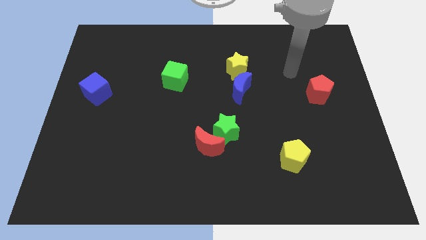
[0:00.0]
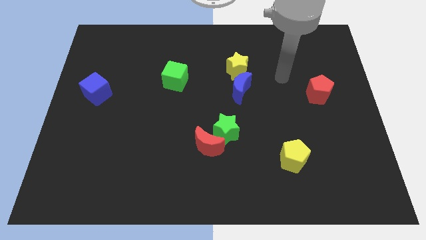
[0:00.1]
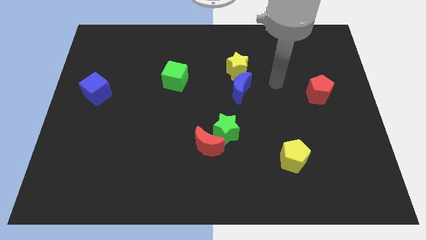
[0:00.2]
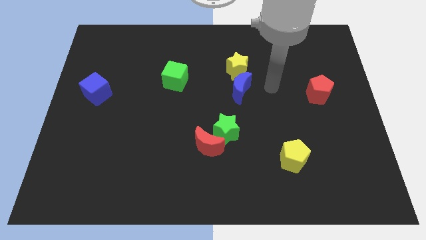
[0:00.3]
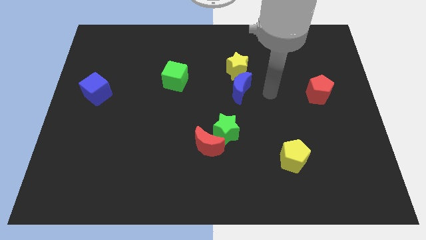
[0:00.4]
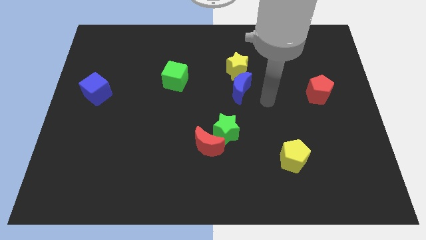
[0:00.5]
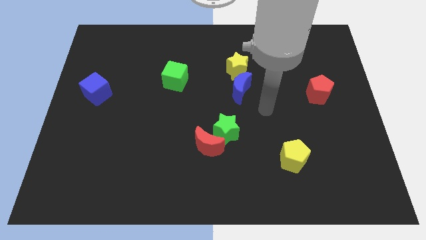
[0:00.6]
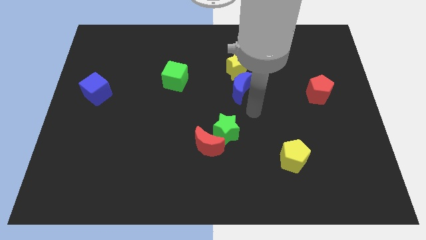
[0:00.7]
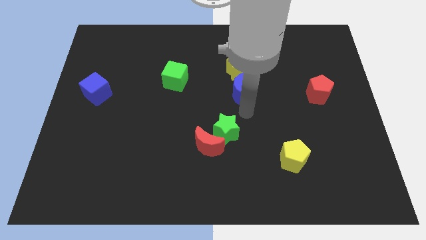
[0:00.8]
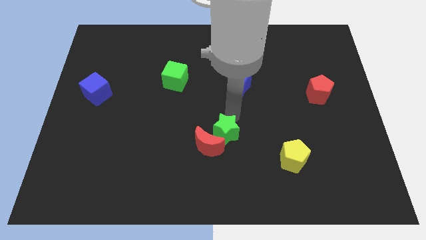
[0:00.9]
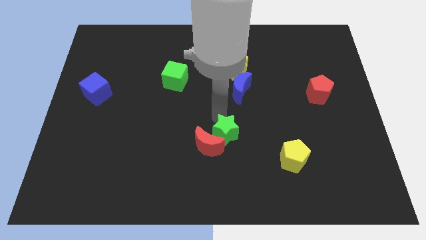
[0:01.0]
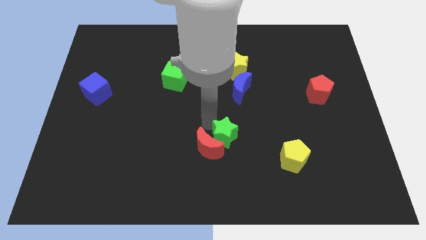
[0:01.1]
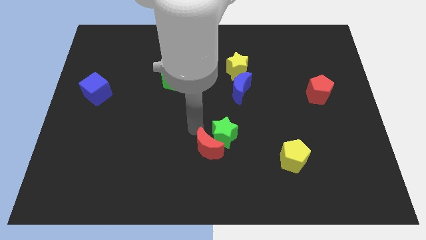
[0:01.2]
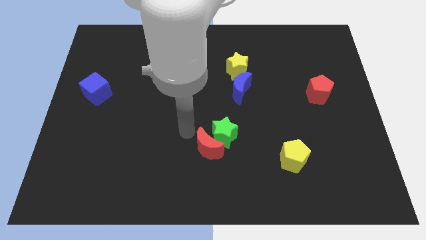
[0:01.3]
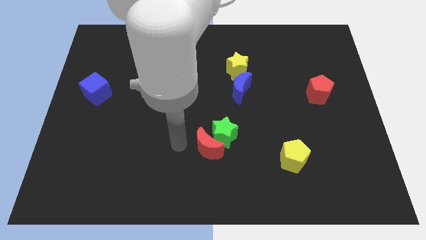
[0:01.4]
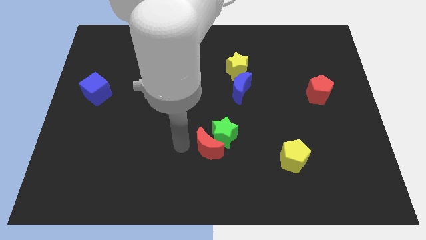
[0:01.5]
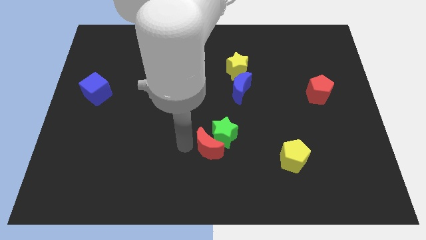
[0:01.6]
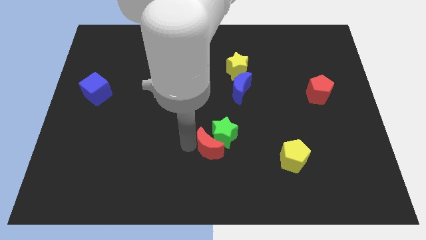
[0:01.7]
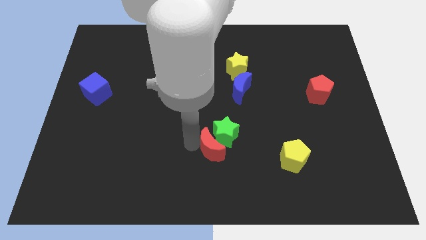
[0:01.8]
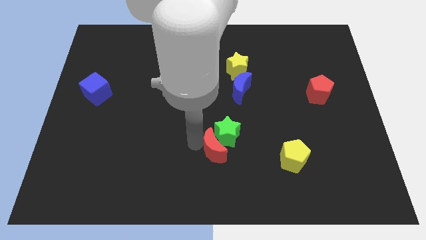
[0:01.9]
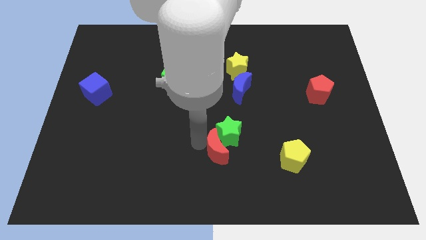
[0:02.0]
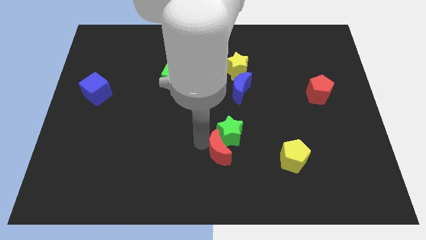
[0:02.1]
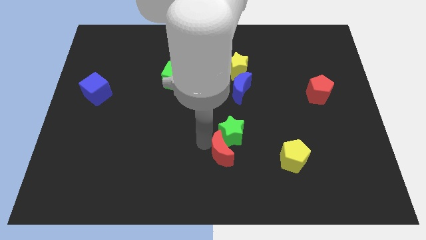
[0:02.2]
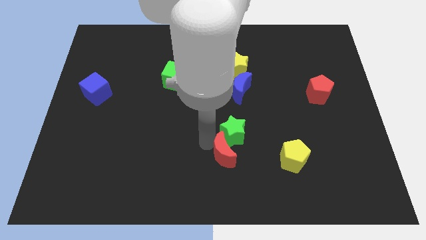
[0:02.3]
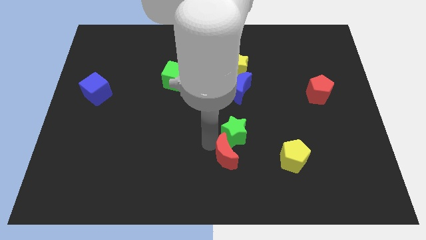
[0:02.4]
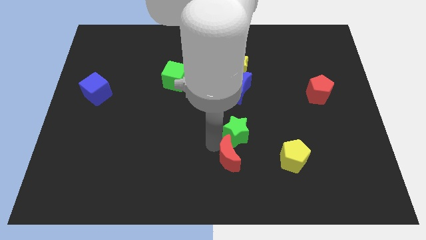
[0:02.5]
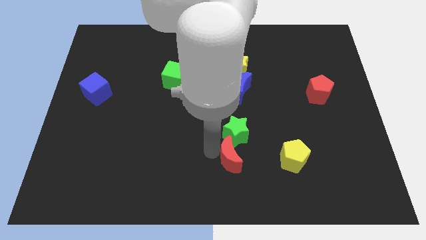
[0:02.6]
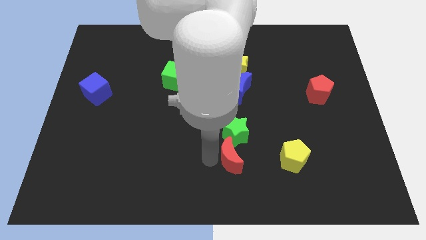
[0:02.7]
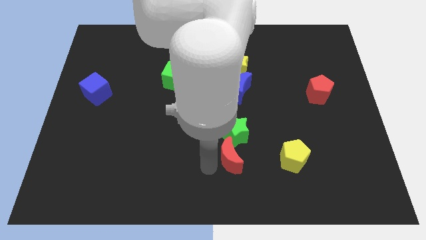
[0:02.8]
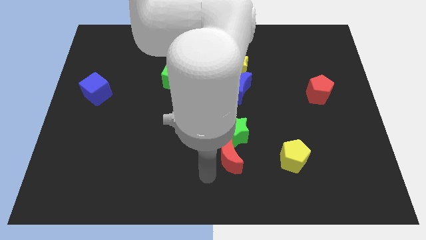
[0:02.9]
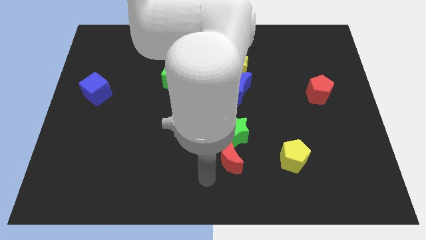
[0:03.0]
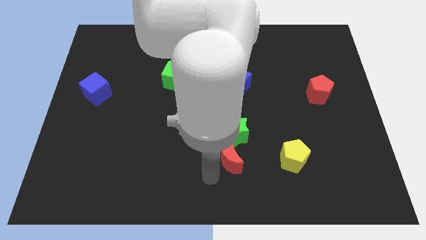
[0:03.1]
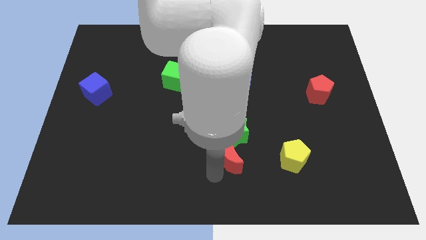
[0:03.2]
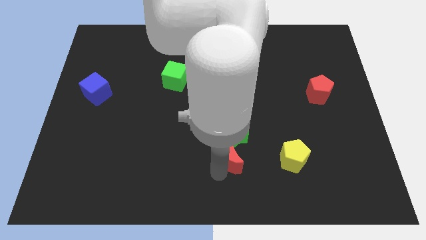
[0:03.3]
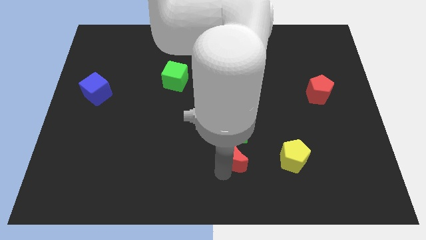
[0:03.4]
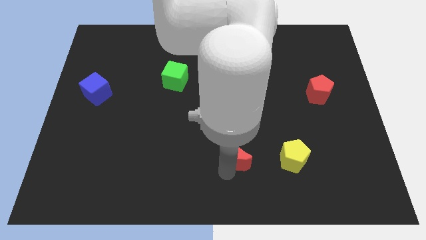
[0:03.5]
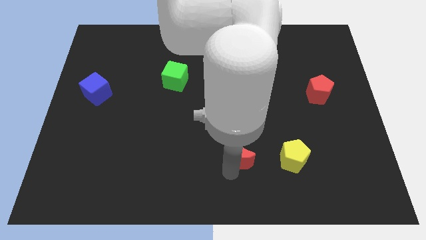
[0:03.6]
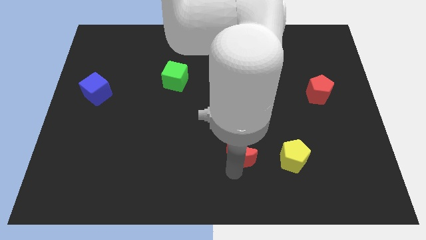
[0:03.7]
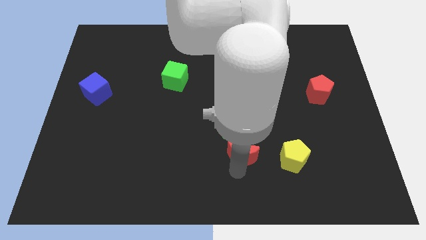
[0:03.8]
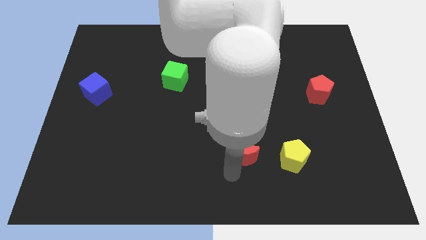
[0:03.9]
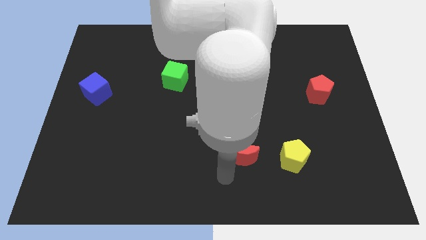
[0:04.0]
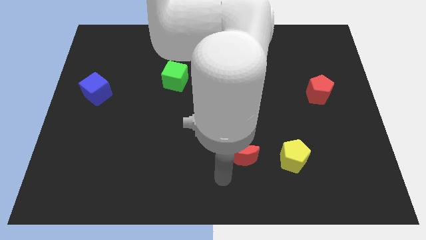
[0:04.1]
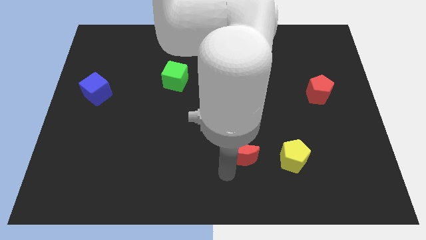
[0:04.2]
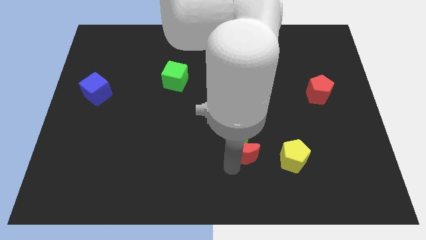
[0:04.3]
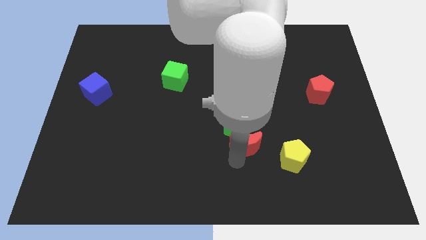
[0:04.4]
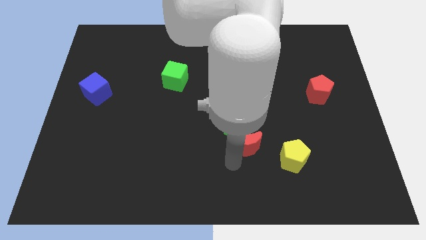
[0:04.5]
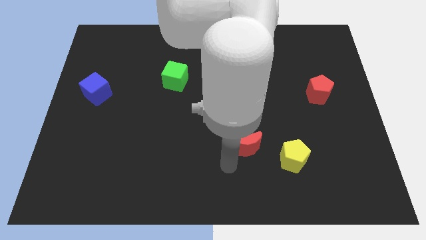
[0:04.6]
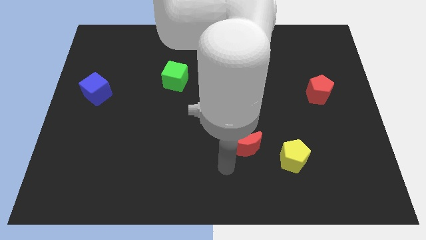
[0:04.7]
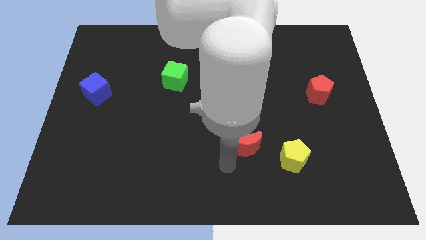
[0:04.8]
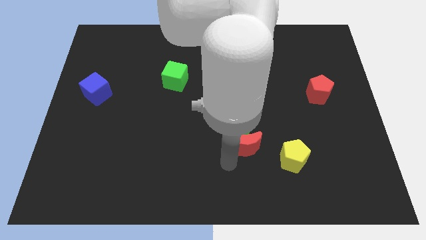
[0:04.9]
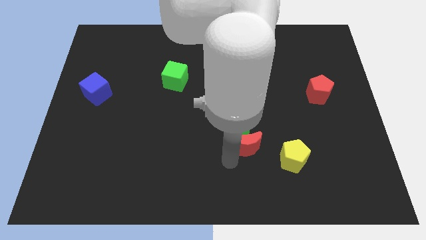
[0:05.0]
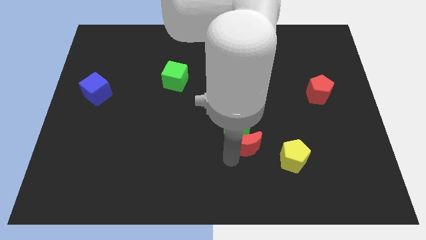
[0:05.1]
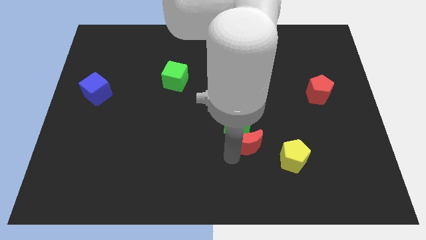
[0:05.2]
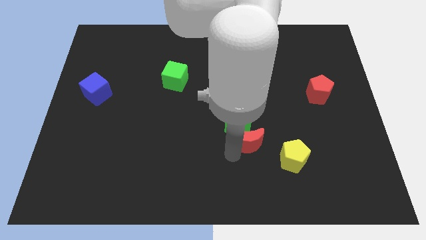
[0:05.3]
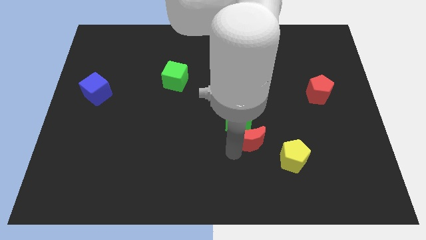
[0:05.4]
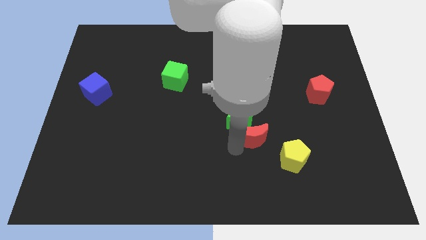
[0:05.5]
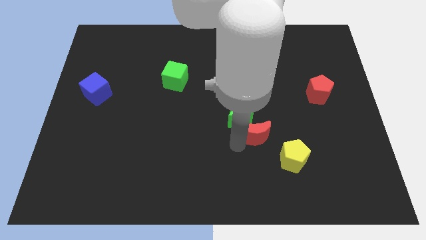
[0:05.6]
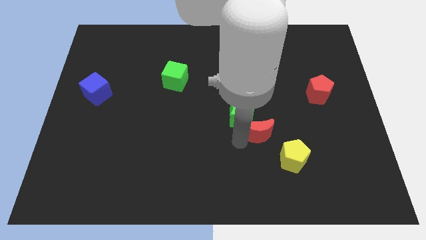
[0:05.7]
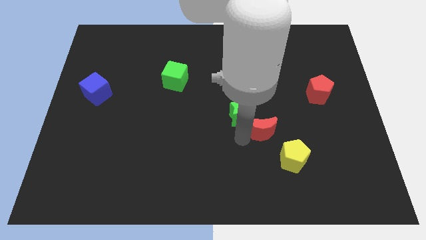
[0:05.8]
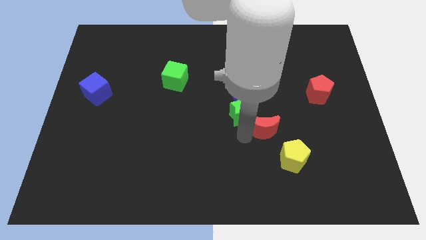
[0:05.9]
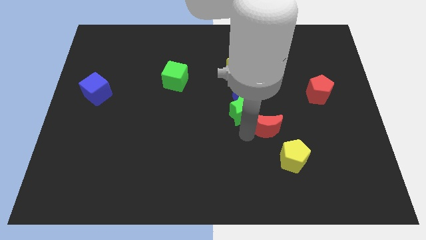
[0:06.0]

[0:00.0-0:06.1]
slide the red moon to the top side of the yellow pentagon

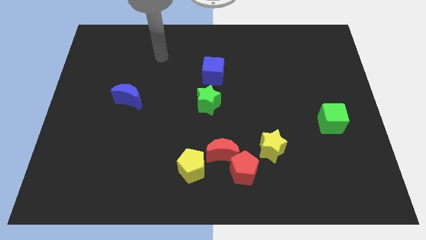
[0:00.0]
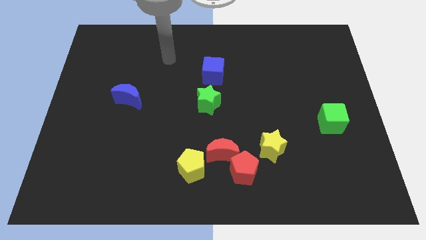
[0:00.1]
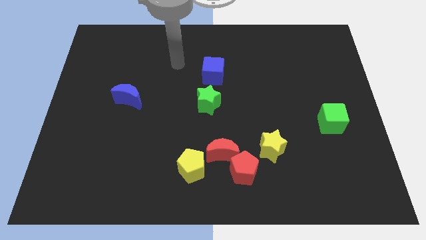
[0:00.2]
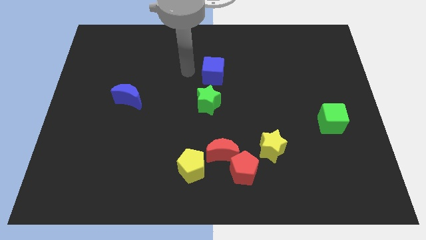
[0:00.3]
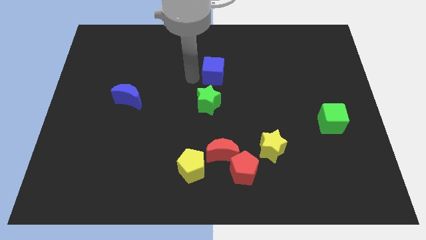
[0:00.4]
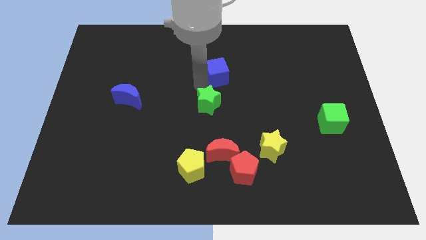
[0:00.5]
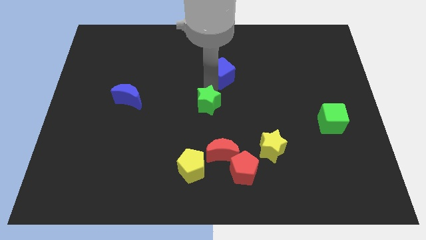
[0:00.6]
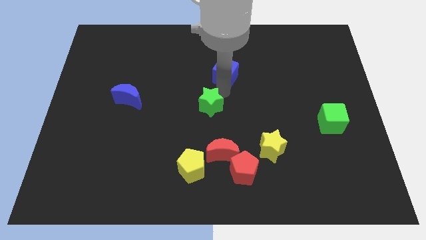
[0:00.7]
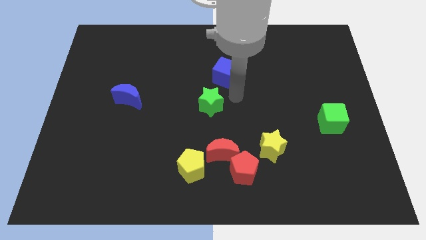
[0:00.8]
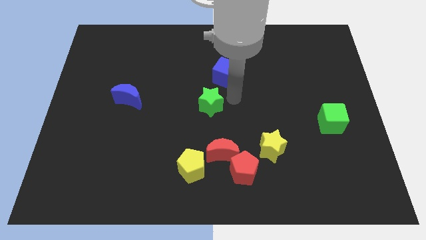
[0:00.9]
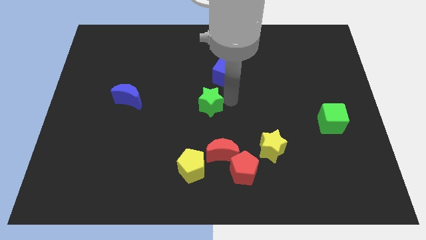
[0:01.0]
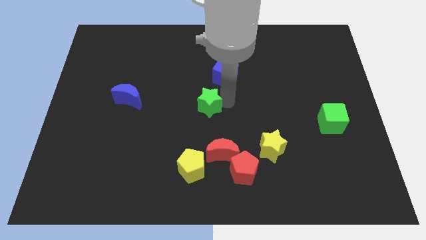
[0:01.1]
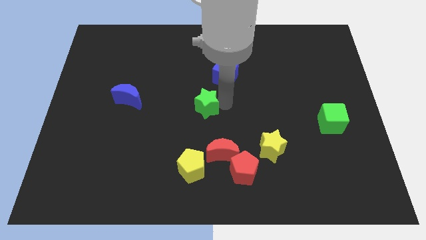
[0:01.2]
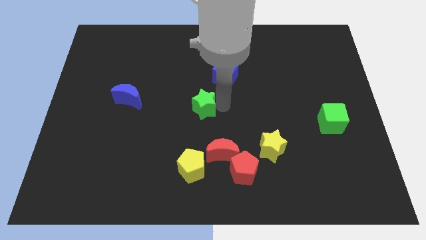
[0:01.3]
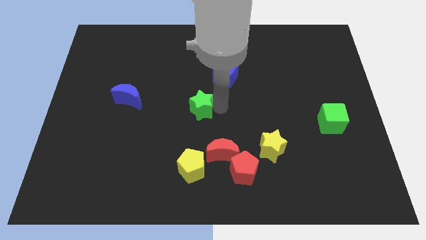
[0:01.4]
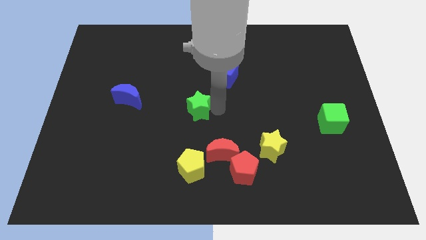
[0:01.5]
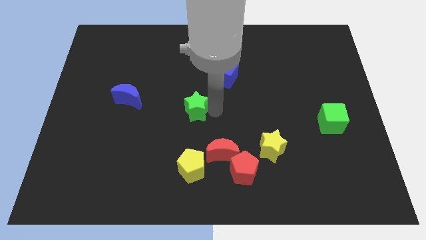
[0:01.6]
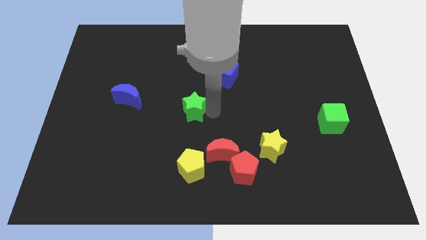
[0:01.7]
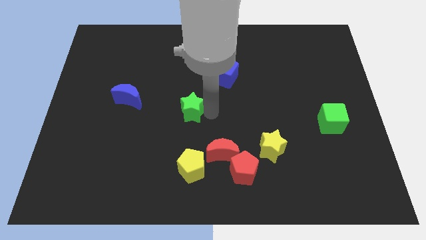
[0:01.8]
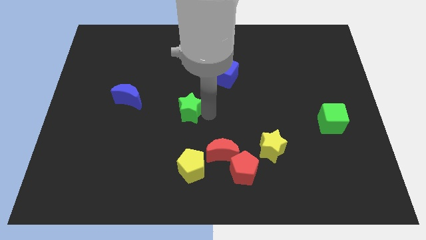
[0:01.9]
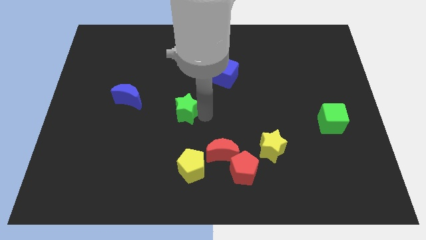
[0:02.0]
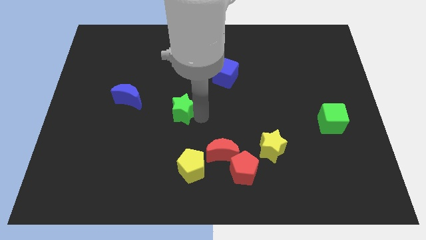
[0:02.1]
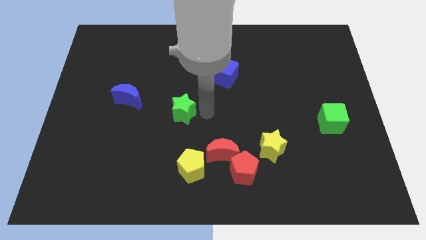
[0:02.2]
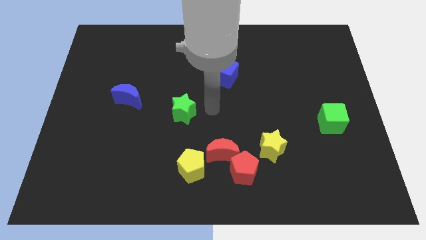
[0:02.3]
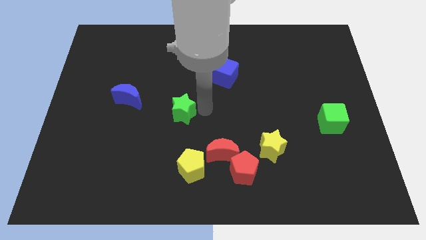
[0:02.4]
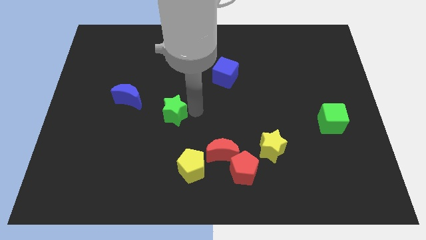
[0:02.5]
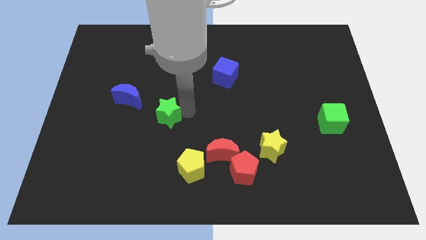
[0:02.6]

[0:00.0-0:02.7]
push the green star to the bottom right of the blue moon
